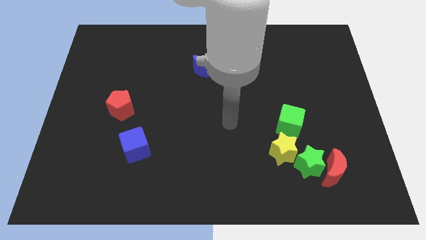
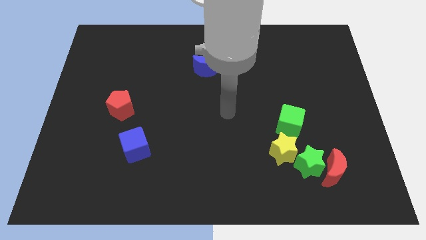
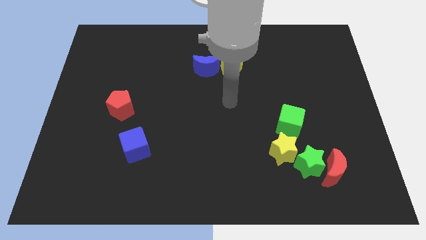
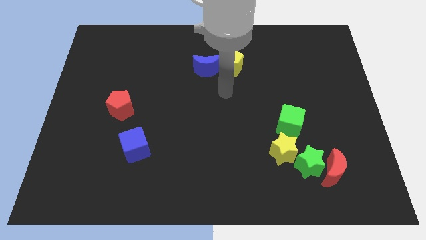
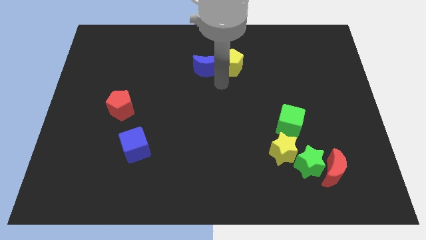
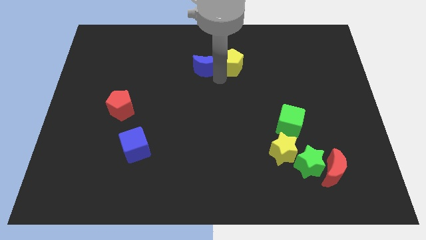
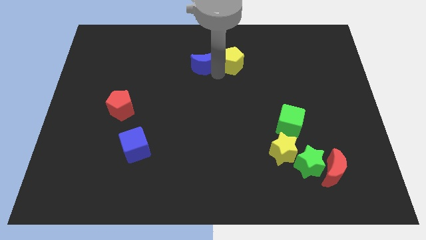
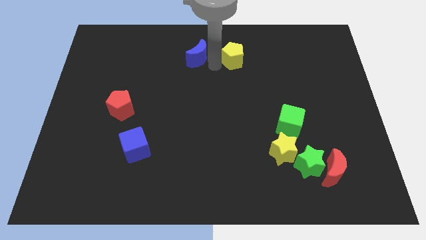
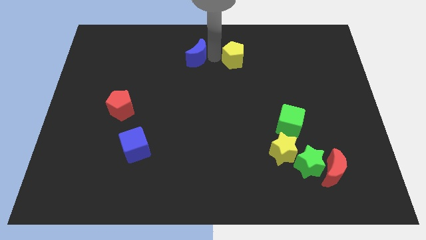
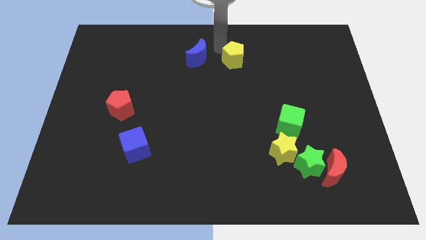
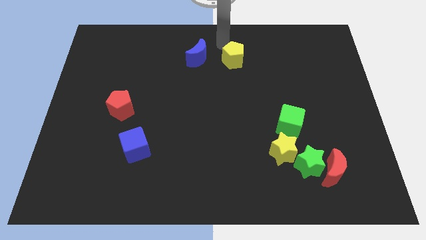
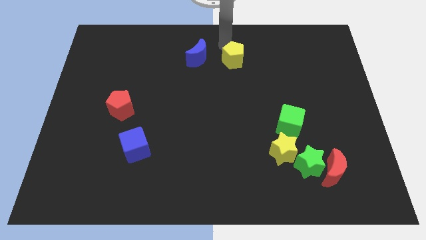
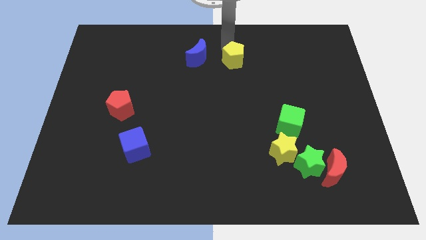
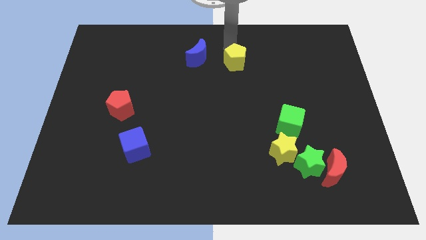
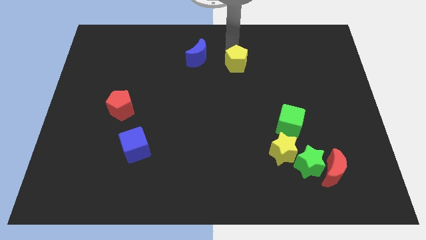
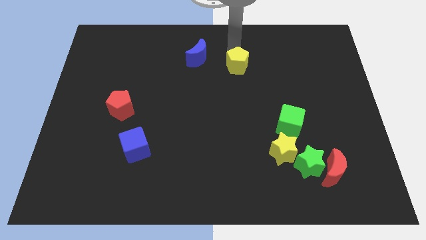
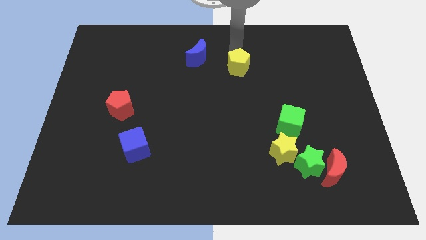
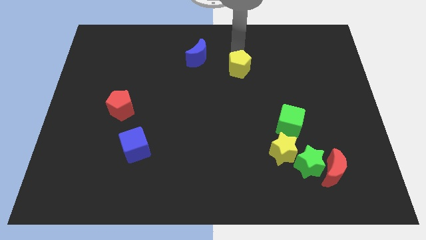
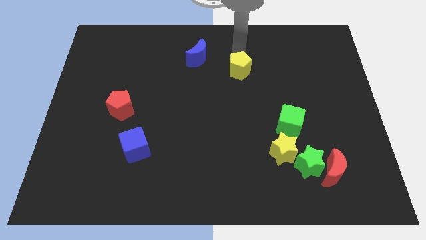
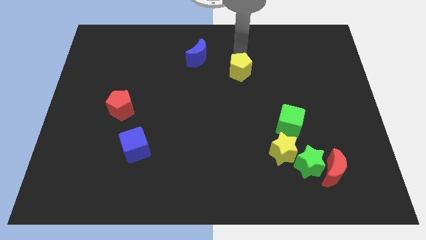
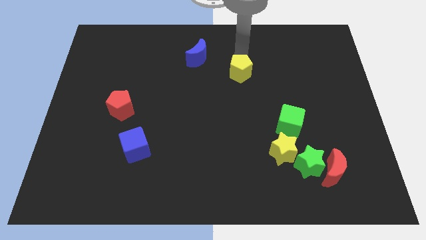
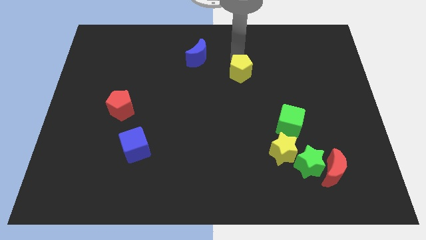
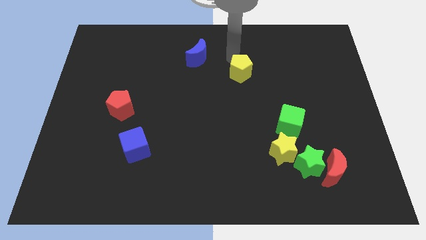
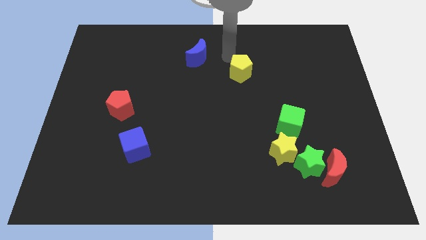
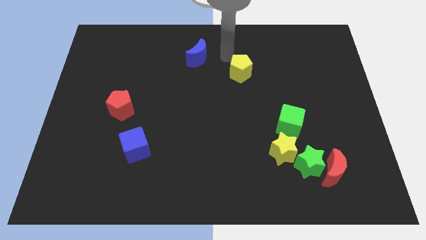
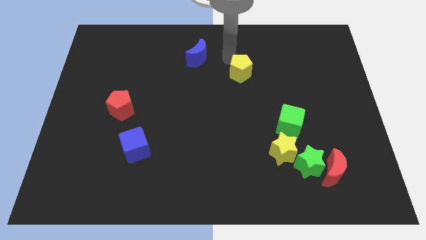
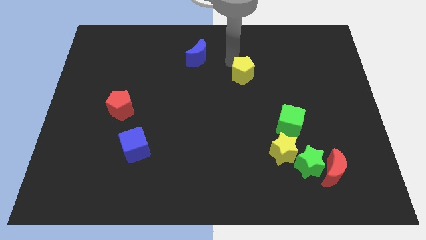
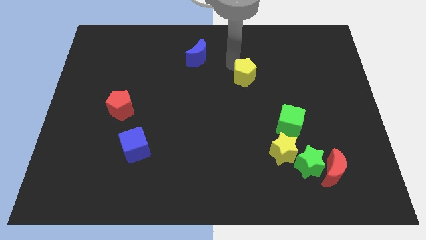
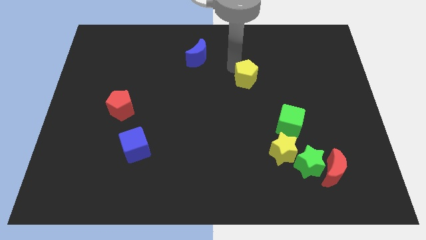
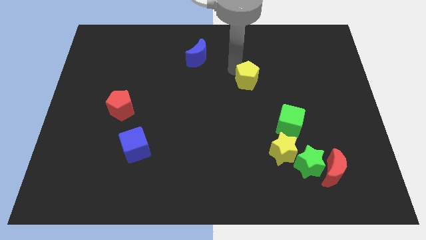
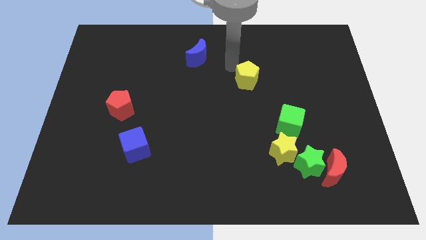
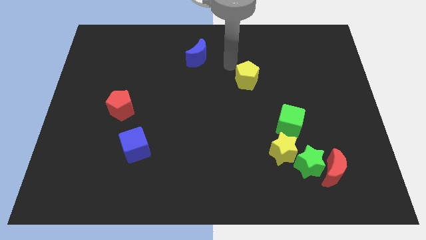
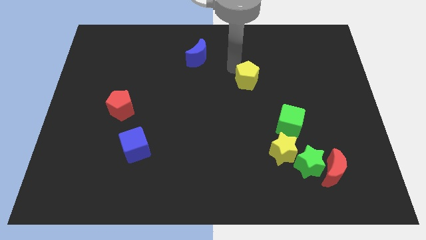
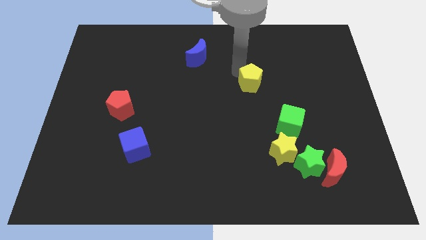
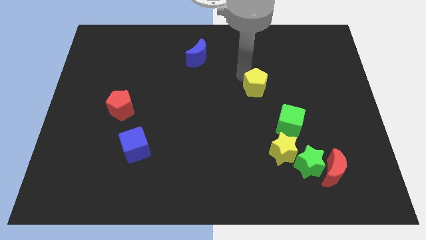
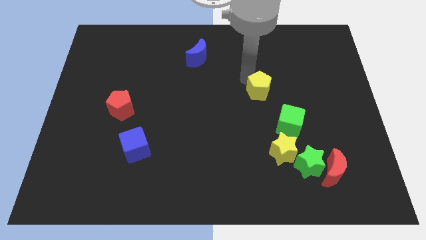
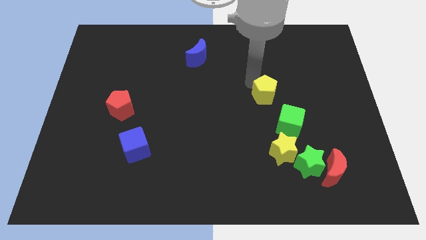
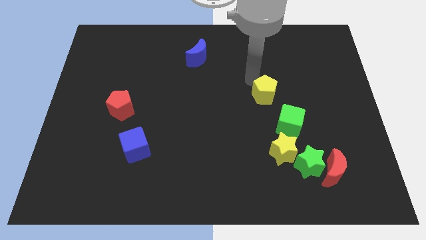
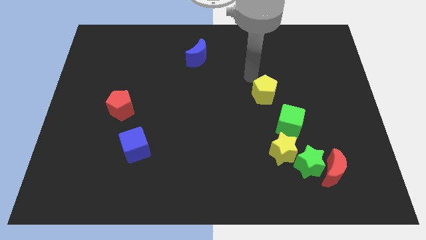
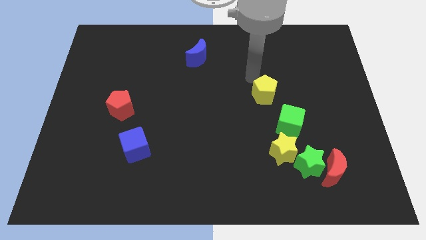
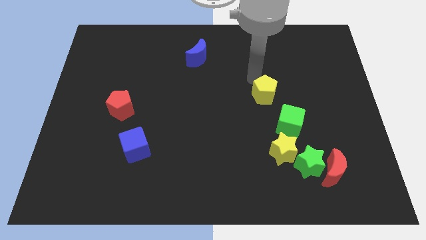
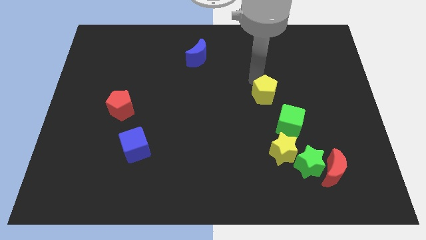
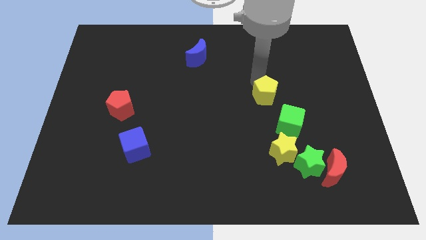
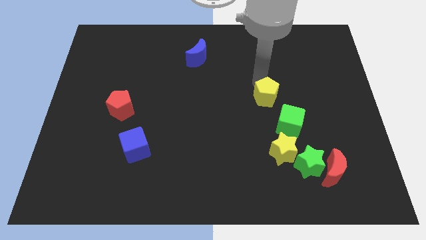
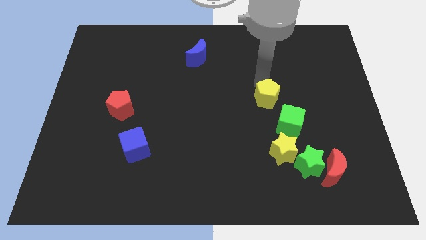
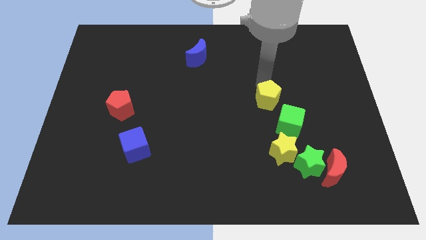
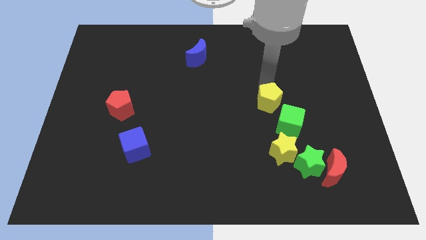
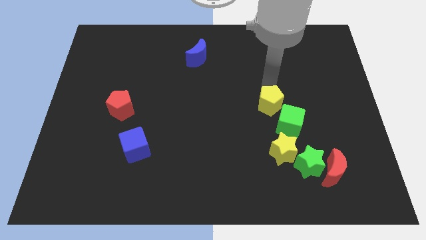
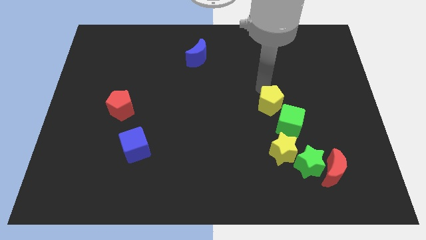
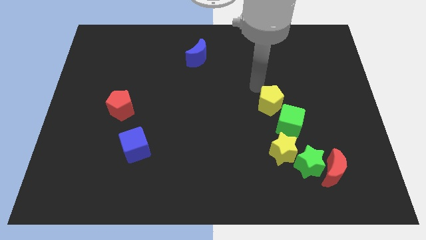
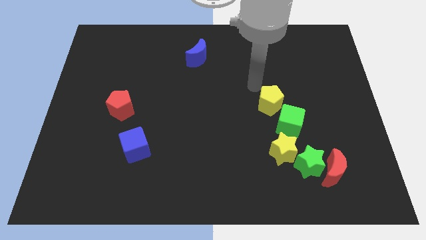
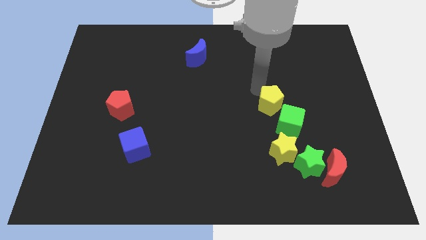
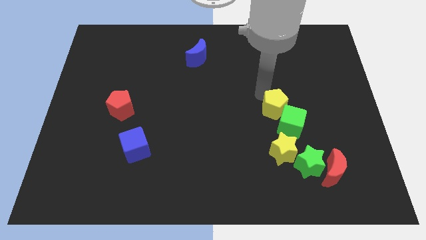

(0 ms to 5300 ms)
push the yellow pentagon towards the green cube

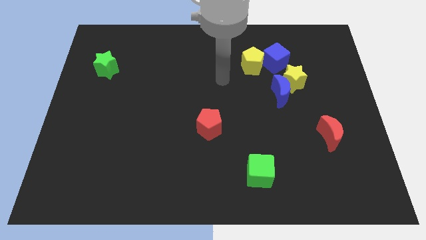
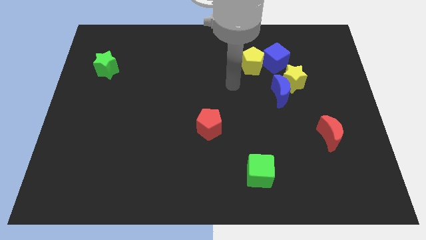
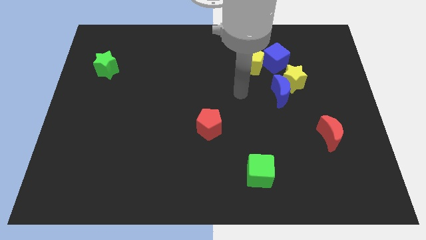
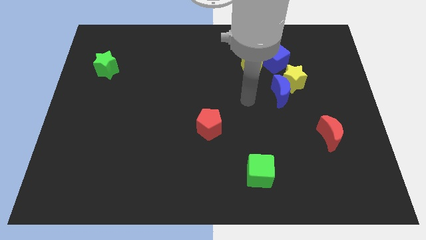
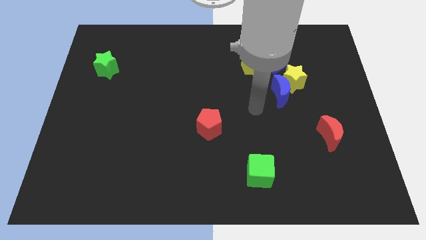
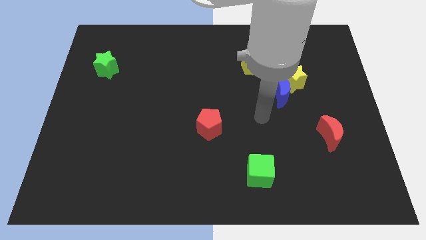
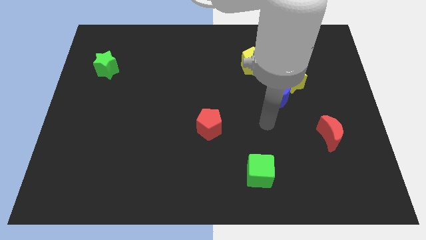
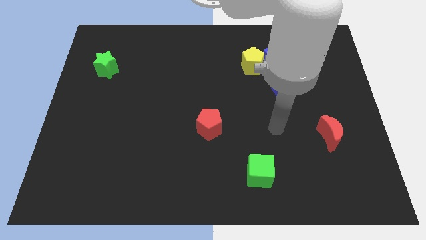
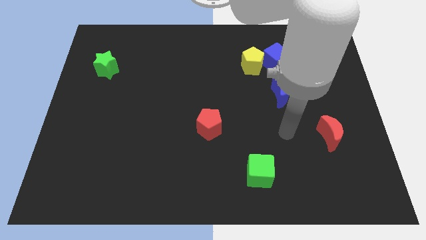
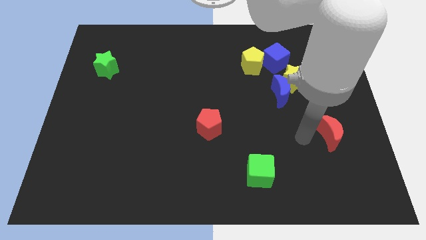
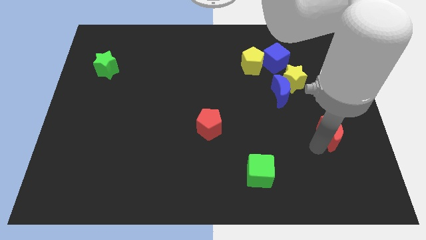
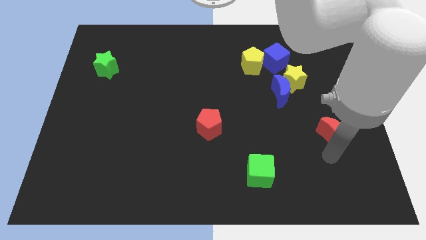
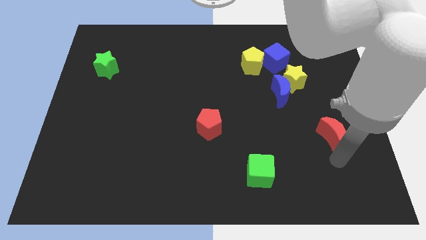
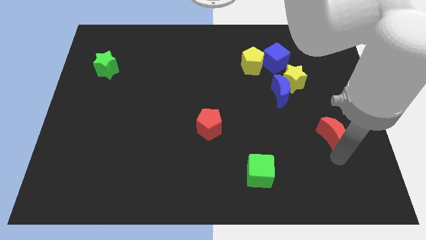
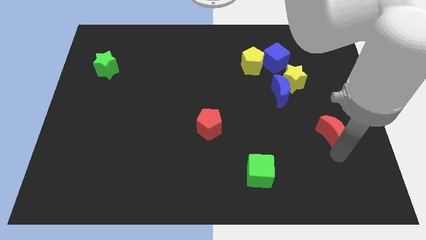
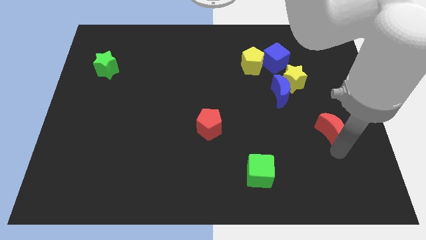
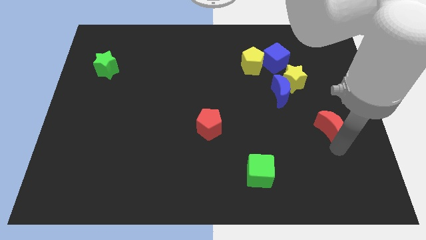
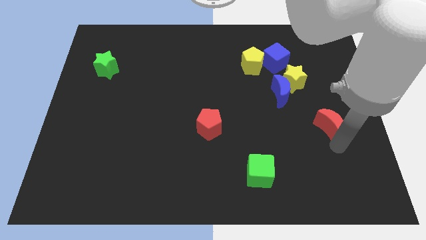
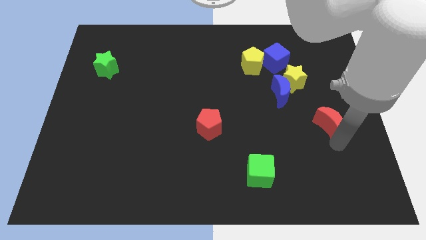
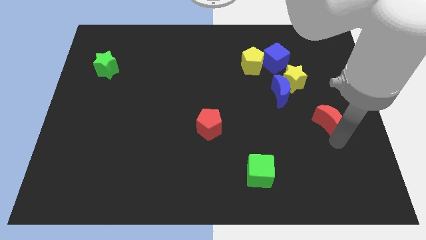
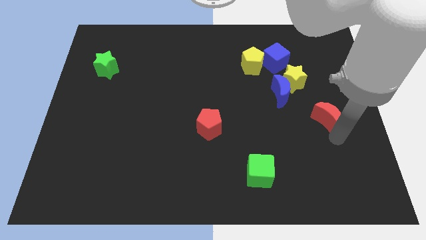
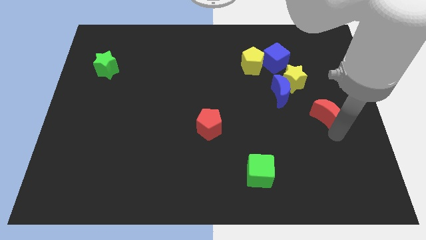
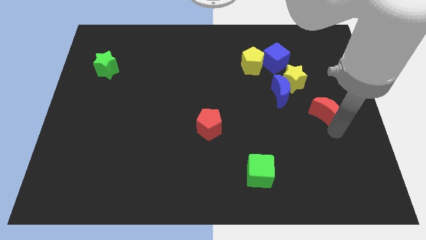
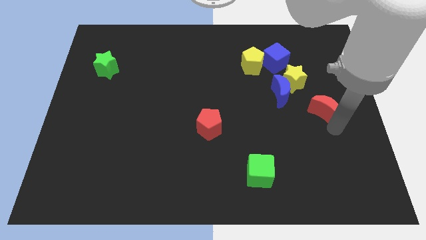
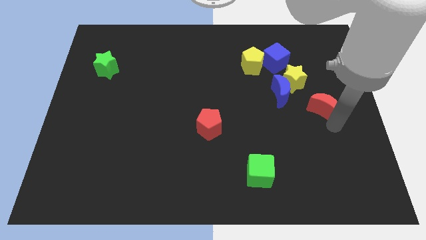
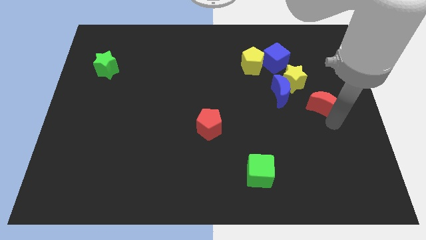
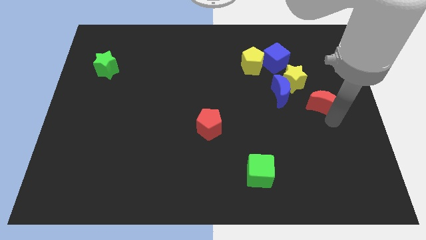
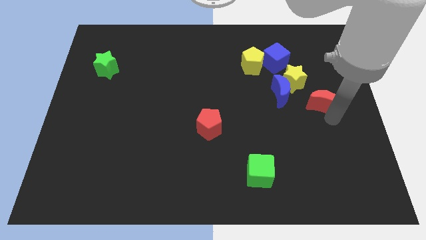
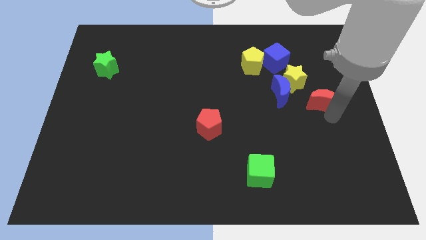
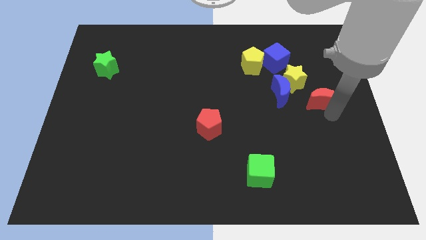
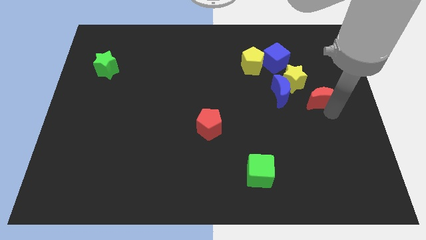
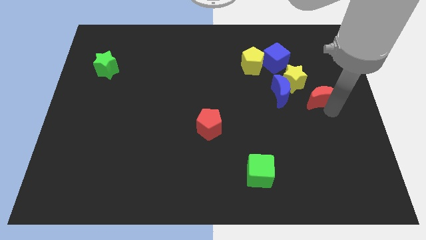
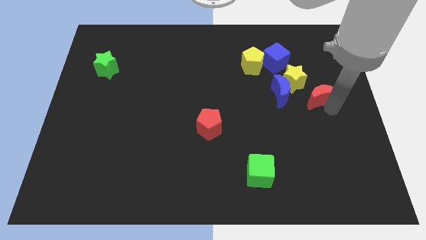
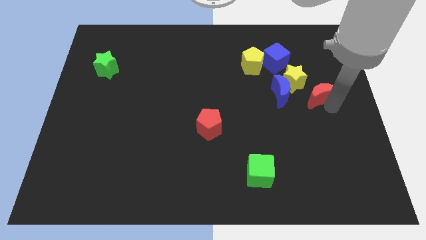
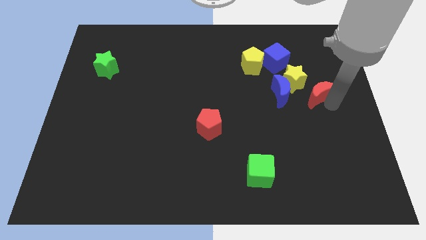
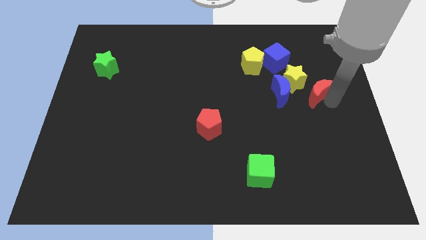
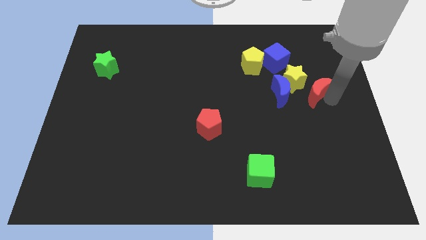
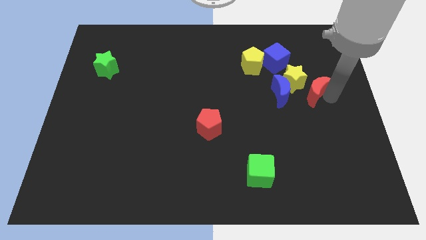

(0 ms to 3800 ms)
push the red moon next to the yellow star
